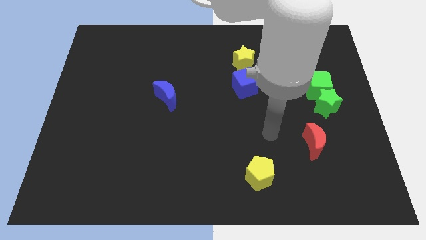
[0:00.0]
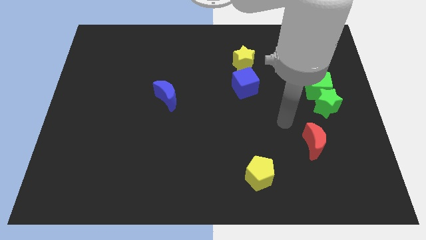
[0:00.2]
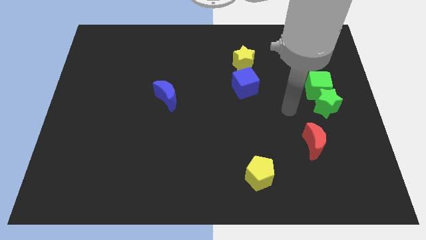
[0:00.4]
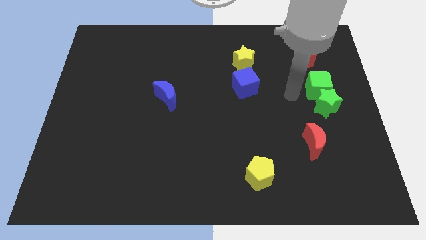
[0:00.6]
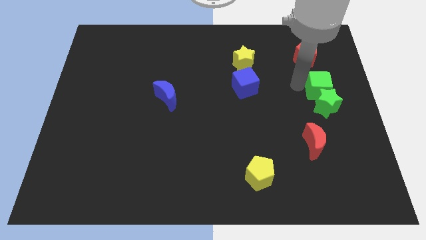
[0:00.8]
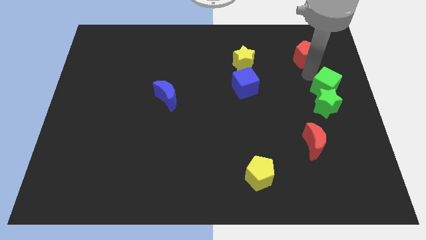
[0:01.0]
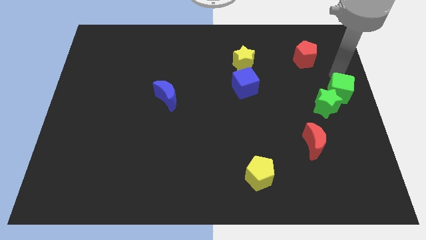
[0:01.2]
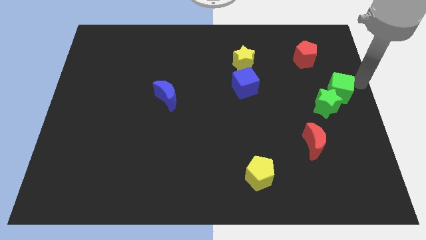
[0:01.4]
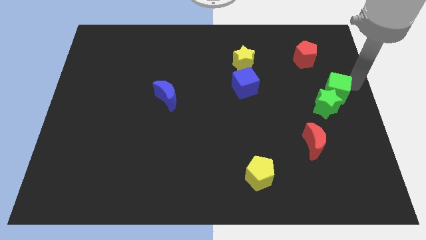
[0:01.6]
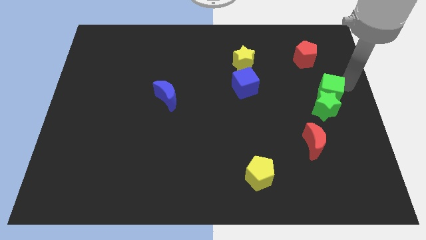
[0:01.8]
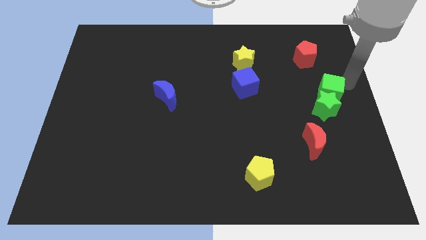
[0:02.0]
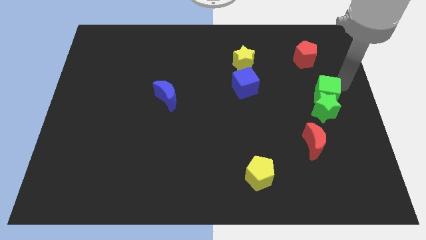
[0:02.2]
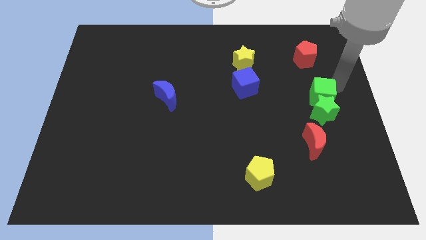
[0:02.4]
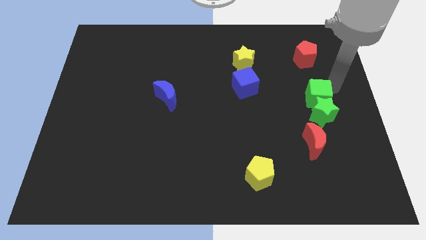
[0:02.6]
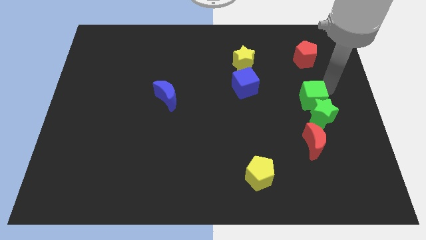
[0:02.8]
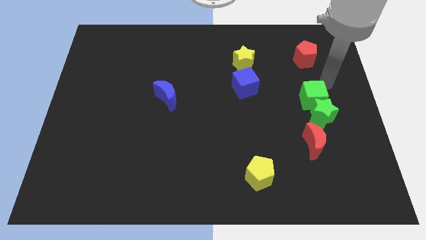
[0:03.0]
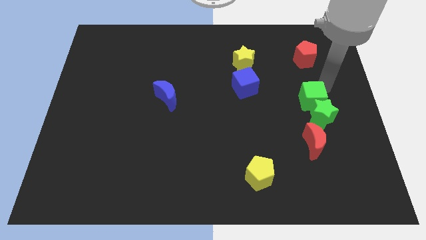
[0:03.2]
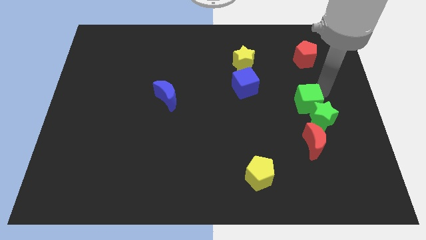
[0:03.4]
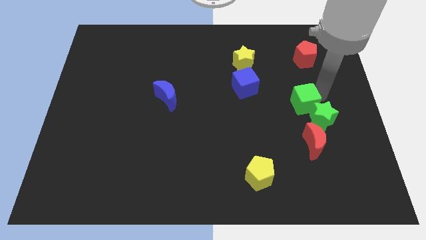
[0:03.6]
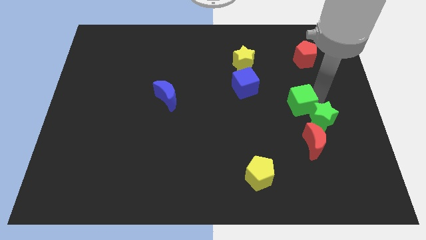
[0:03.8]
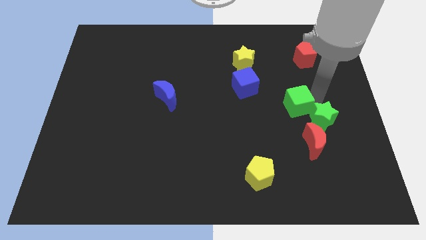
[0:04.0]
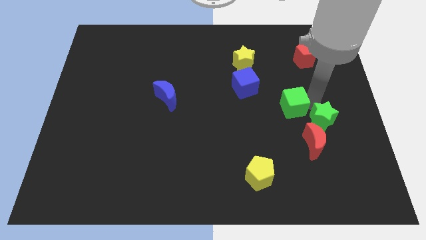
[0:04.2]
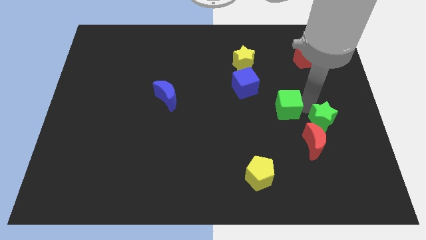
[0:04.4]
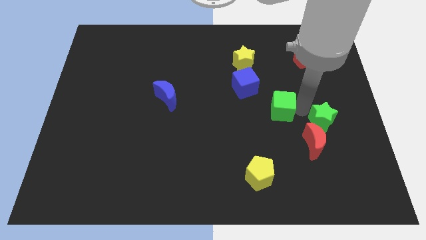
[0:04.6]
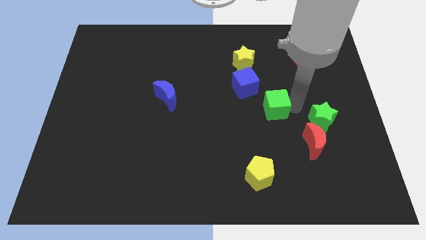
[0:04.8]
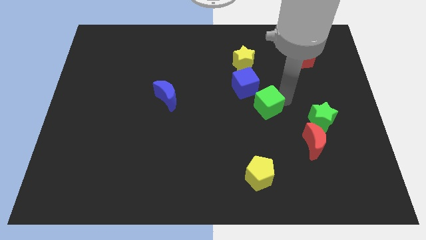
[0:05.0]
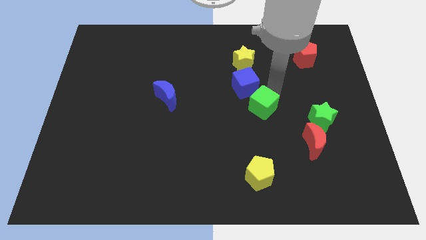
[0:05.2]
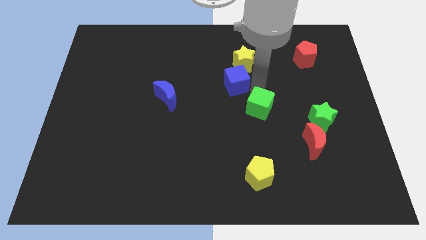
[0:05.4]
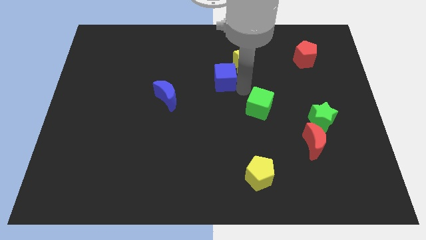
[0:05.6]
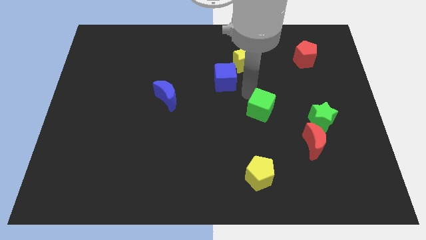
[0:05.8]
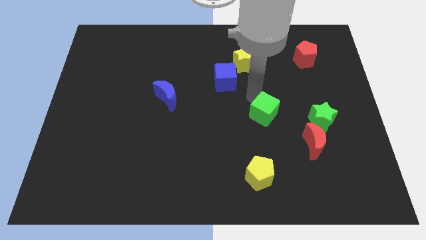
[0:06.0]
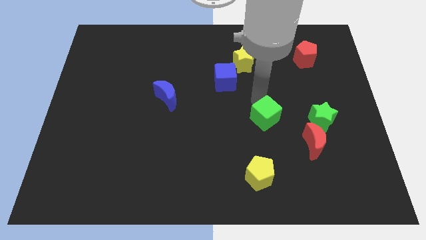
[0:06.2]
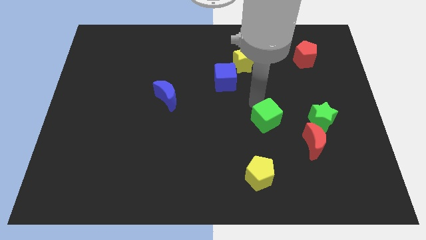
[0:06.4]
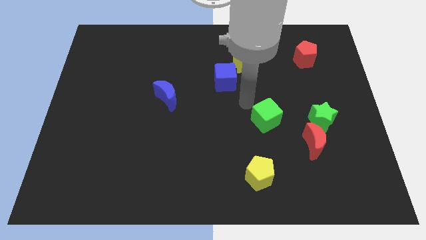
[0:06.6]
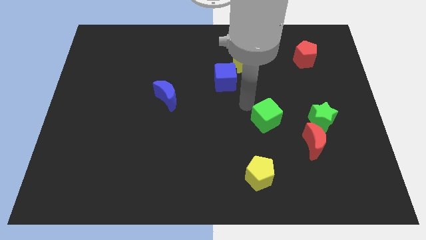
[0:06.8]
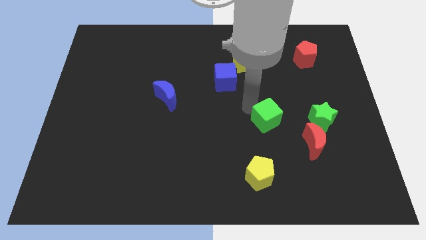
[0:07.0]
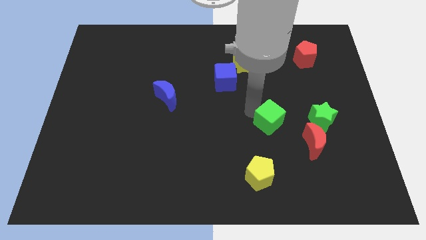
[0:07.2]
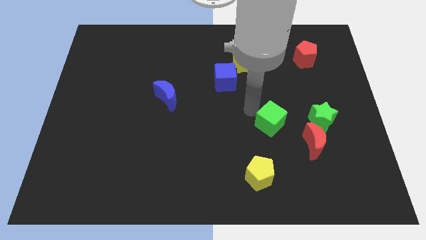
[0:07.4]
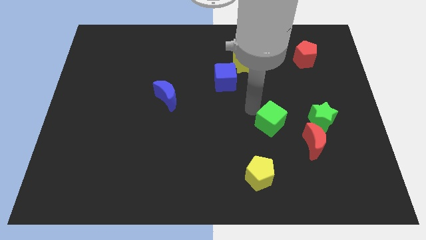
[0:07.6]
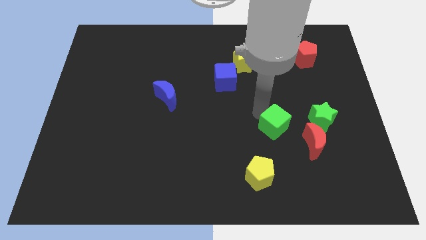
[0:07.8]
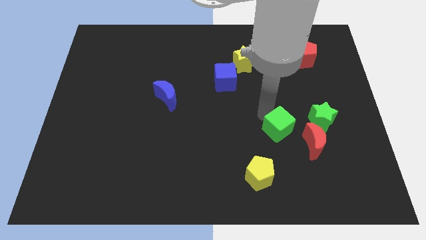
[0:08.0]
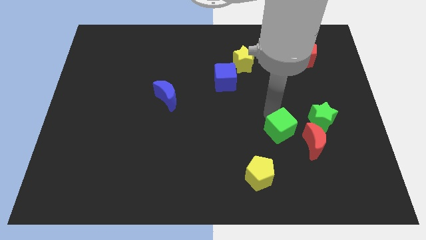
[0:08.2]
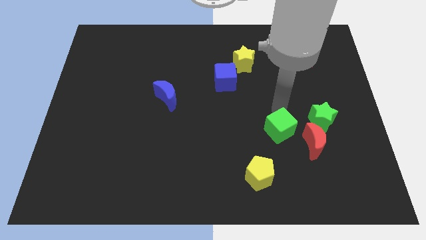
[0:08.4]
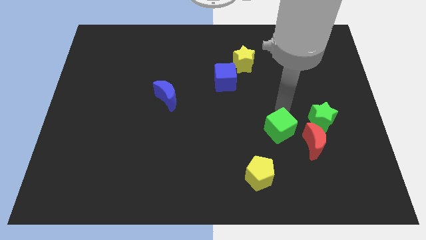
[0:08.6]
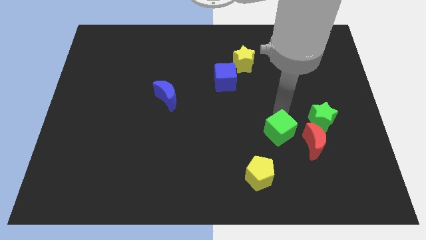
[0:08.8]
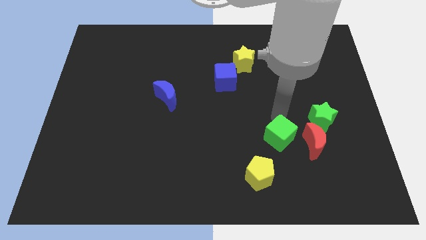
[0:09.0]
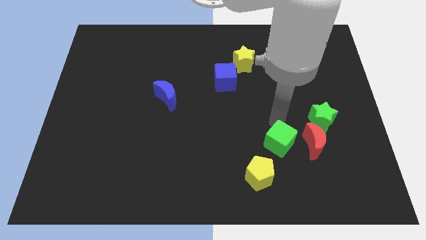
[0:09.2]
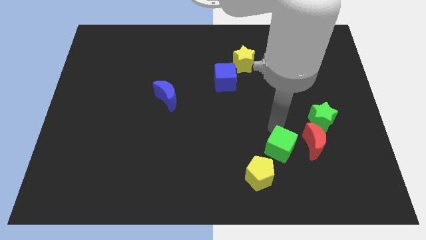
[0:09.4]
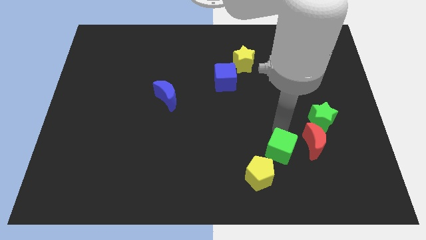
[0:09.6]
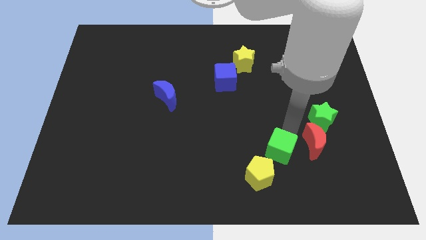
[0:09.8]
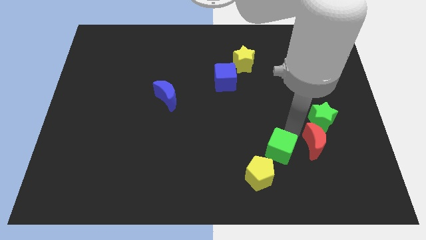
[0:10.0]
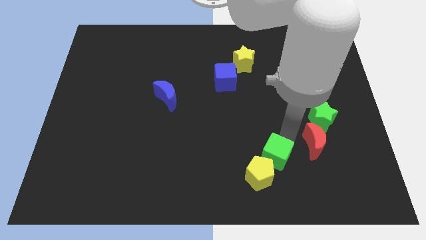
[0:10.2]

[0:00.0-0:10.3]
push the green cube towards the yellow pentagon

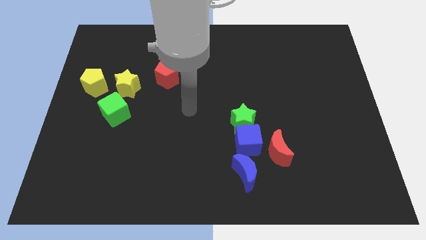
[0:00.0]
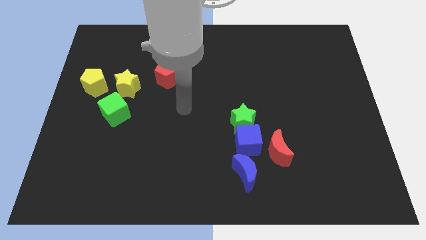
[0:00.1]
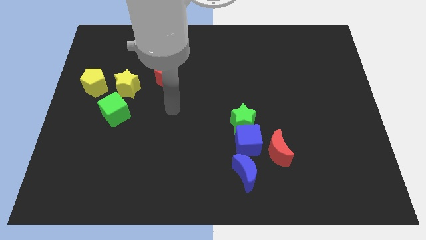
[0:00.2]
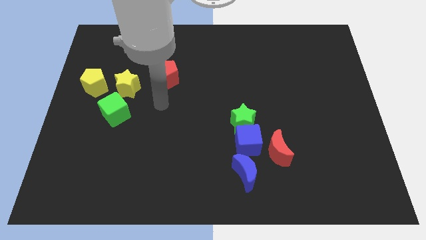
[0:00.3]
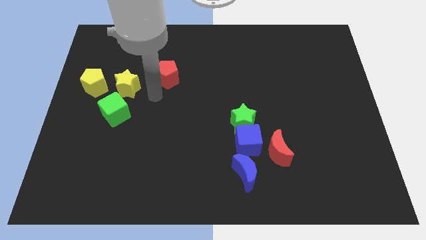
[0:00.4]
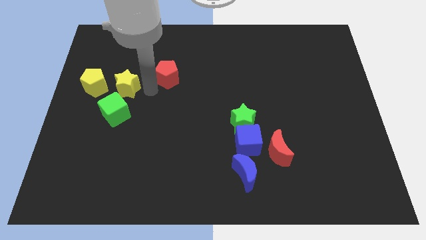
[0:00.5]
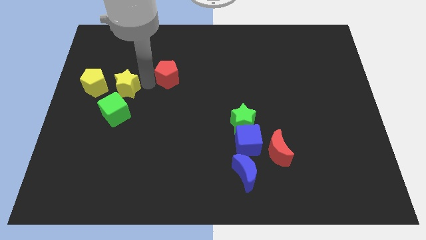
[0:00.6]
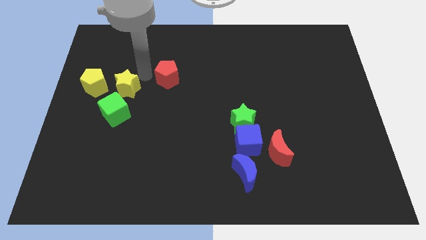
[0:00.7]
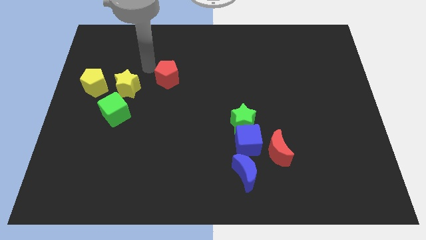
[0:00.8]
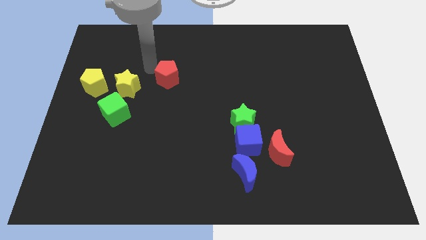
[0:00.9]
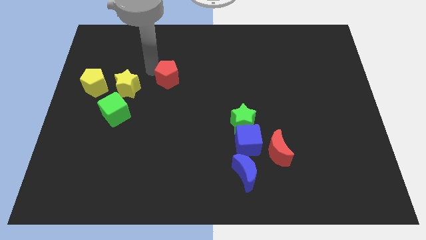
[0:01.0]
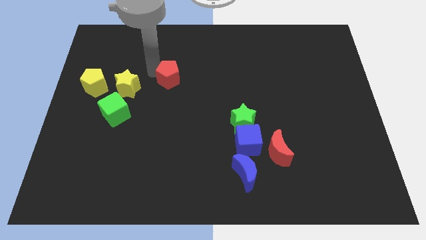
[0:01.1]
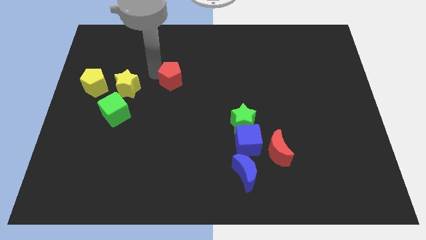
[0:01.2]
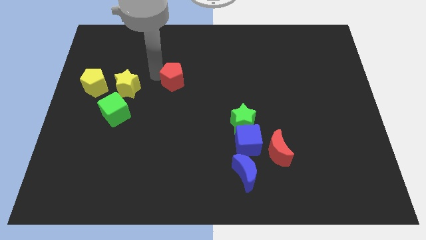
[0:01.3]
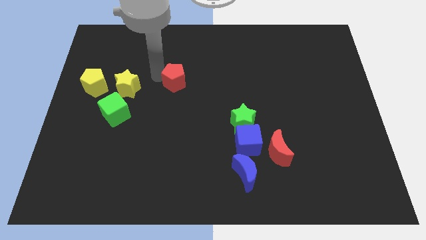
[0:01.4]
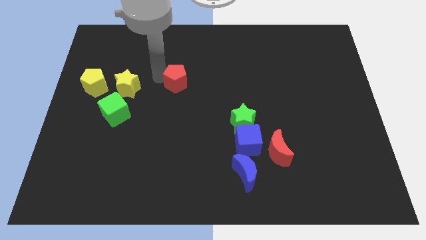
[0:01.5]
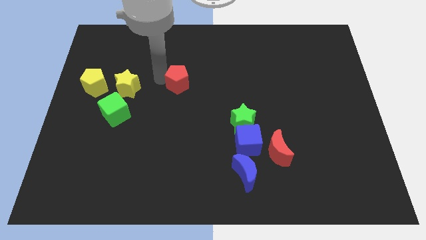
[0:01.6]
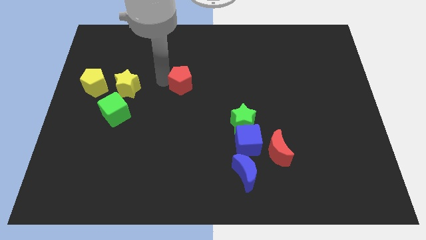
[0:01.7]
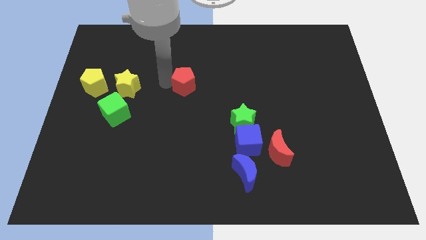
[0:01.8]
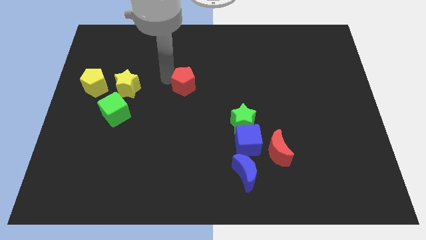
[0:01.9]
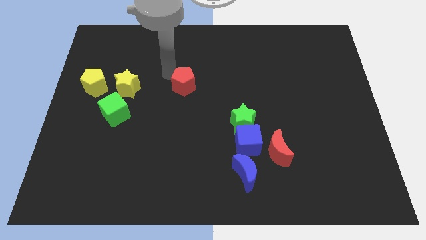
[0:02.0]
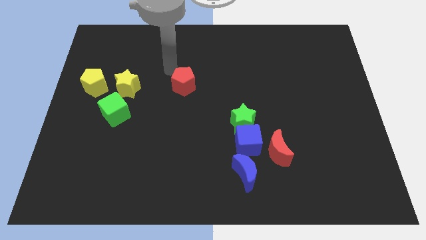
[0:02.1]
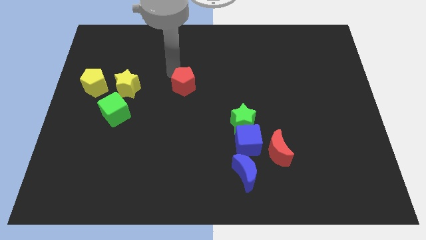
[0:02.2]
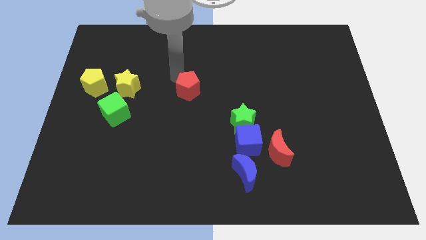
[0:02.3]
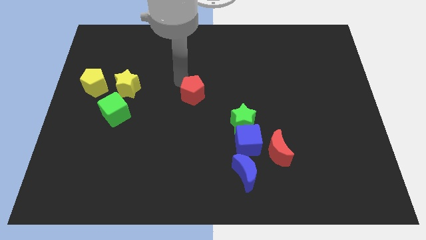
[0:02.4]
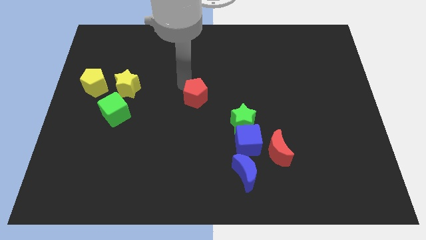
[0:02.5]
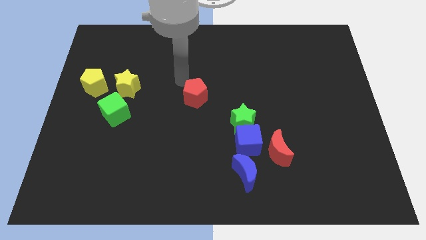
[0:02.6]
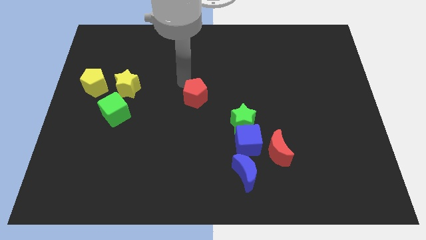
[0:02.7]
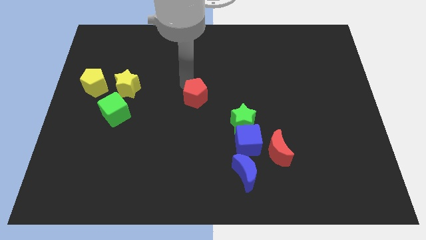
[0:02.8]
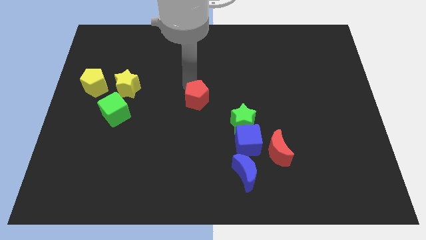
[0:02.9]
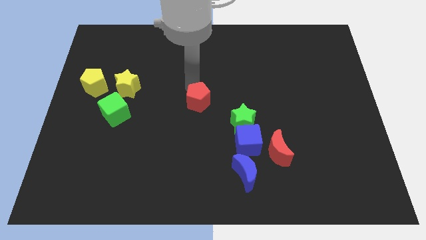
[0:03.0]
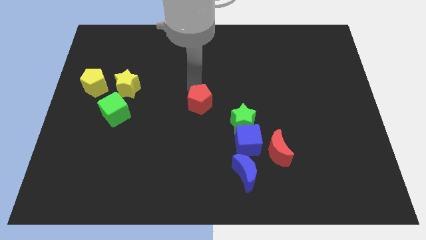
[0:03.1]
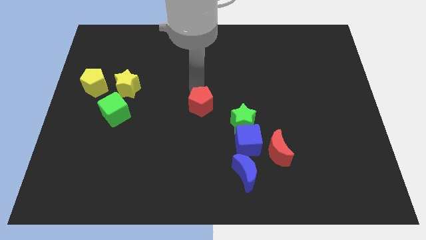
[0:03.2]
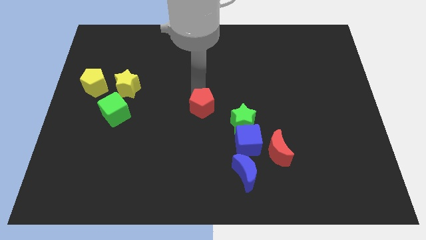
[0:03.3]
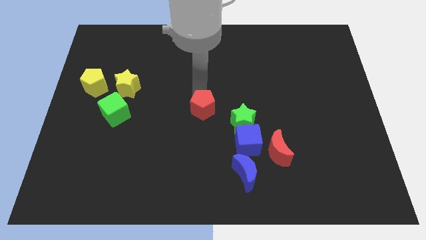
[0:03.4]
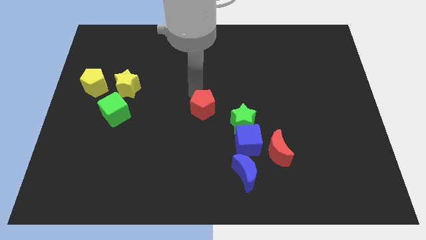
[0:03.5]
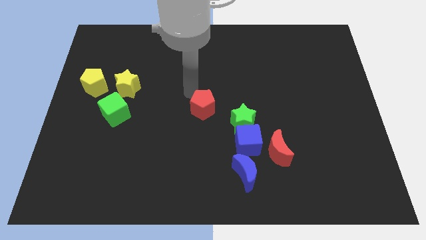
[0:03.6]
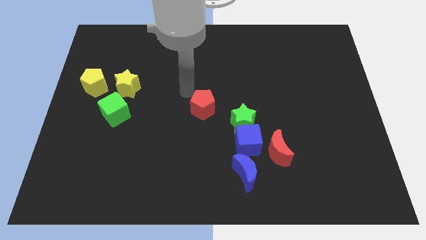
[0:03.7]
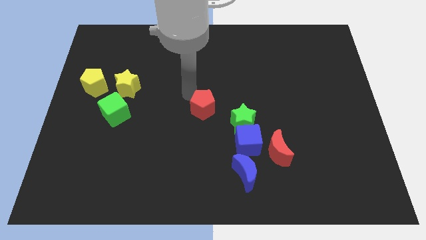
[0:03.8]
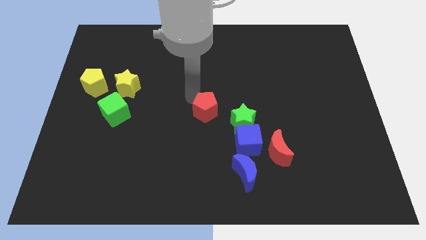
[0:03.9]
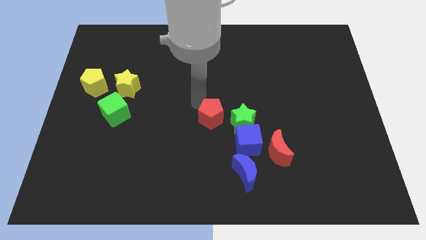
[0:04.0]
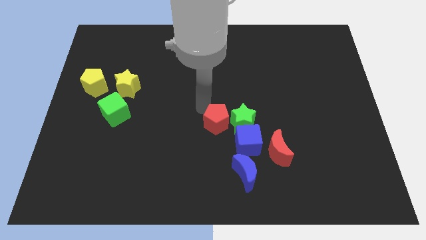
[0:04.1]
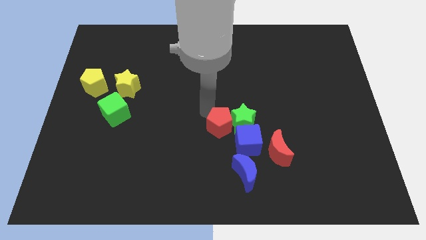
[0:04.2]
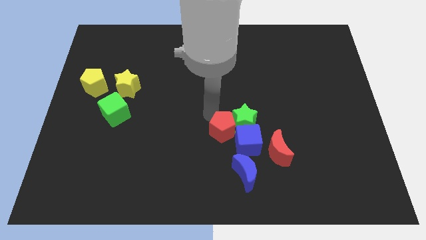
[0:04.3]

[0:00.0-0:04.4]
move the red pentagon to the blue cube
